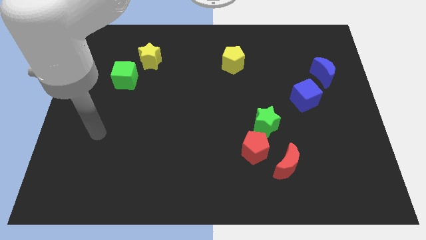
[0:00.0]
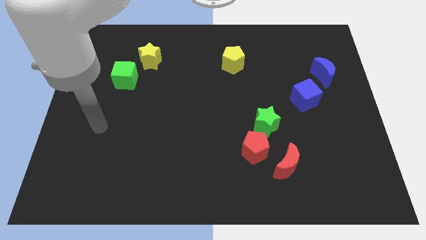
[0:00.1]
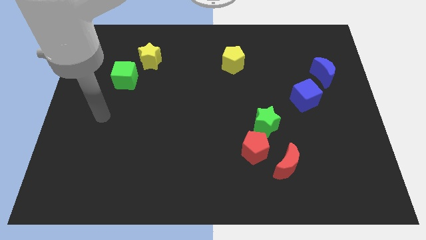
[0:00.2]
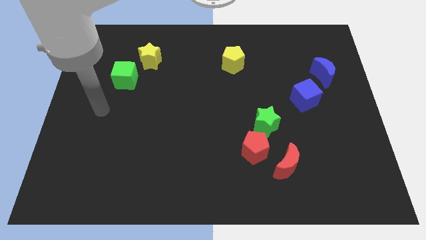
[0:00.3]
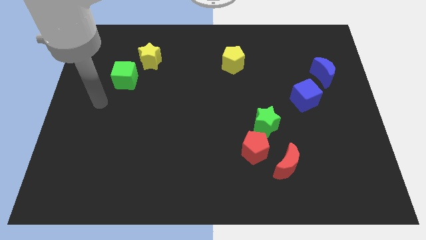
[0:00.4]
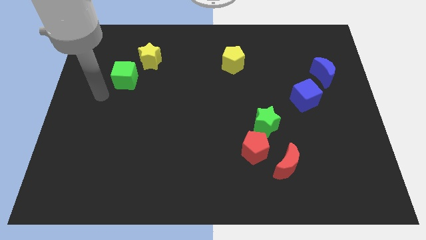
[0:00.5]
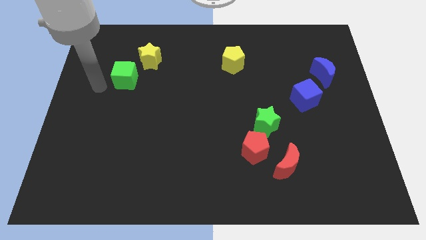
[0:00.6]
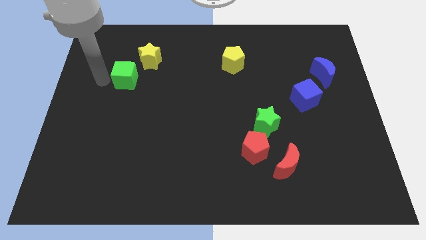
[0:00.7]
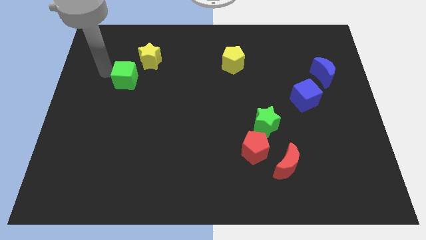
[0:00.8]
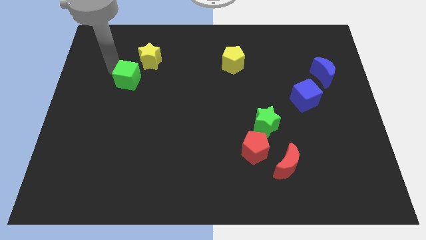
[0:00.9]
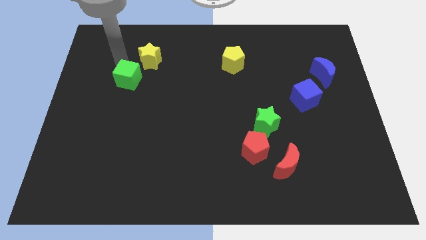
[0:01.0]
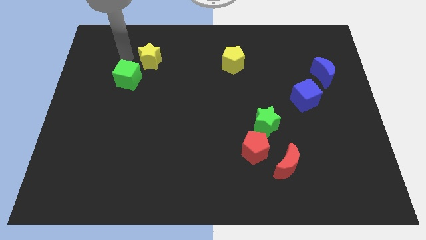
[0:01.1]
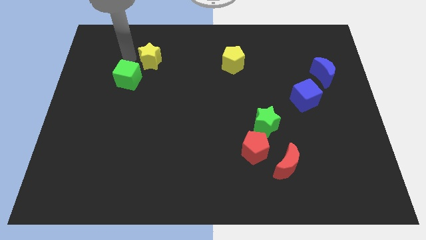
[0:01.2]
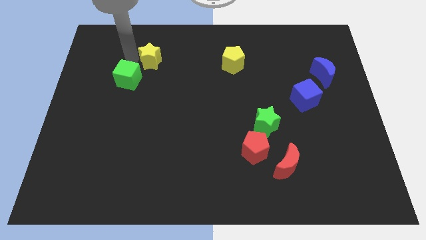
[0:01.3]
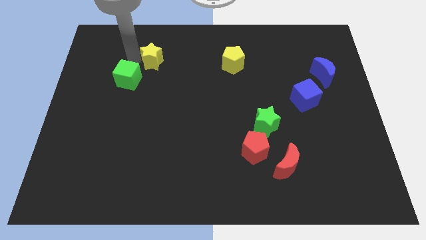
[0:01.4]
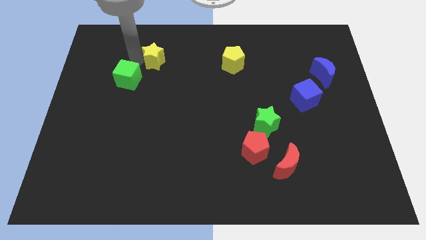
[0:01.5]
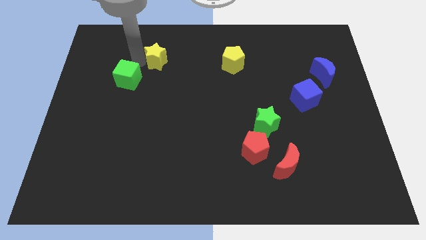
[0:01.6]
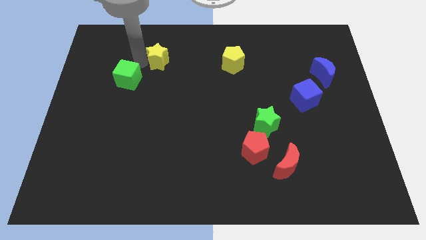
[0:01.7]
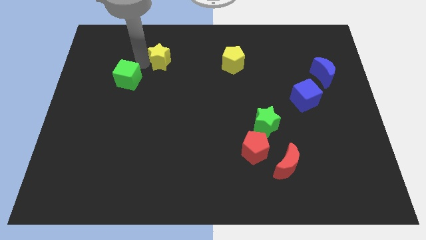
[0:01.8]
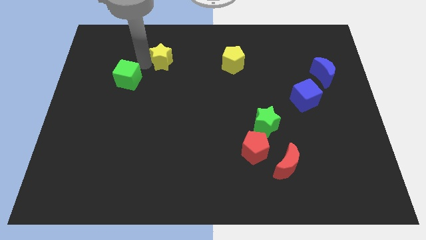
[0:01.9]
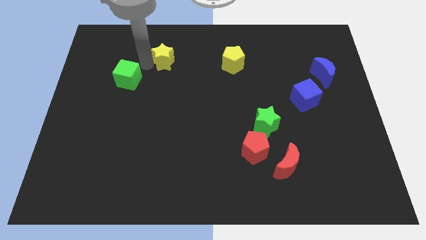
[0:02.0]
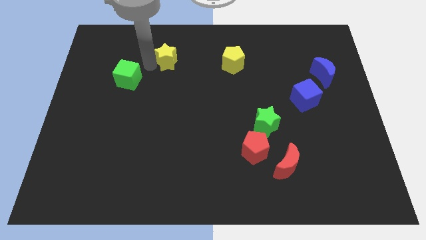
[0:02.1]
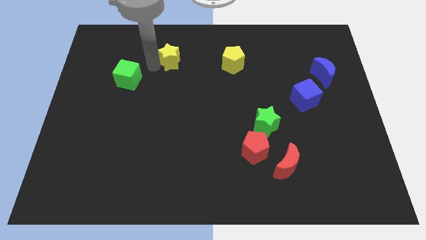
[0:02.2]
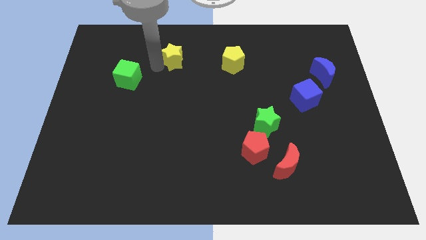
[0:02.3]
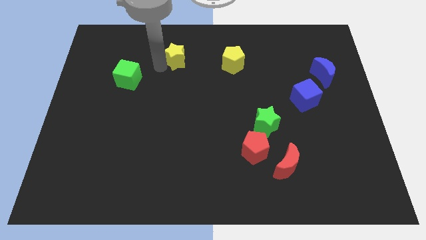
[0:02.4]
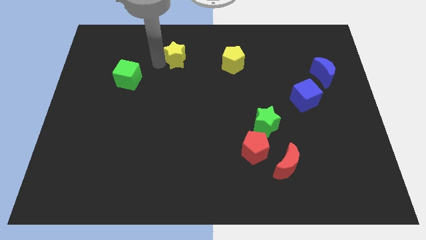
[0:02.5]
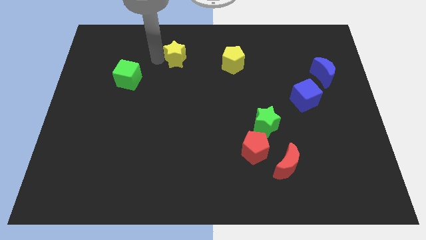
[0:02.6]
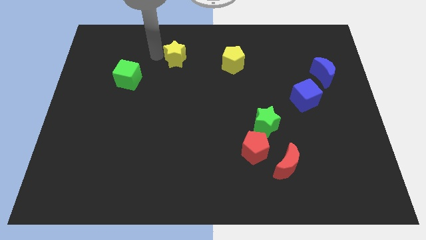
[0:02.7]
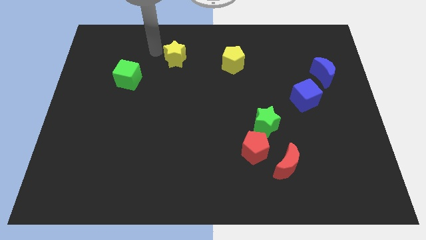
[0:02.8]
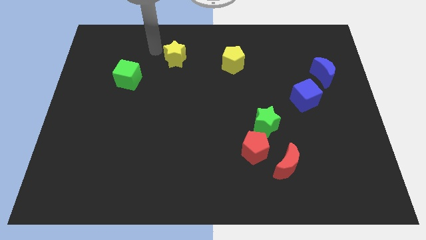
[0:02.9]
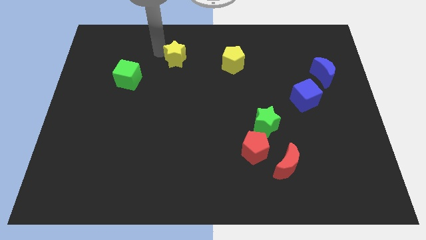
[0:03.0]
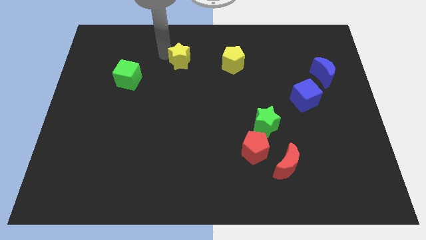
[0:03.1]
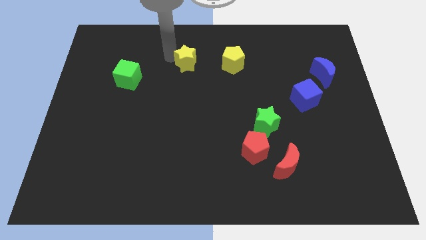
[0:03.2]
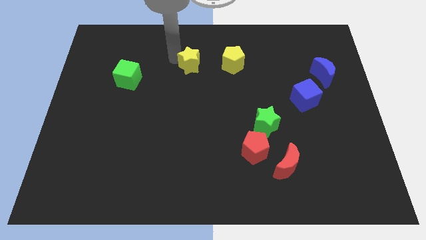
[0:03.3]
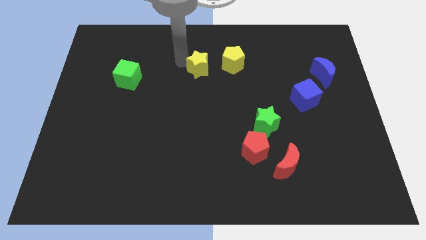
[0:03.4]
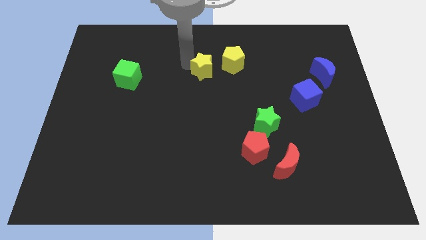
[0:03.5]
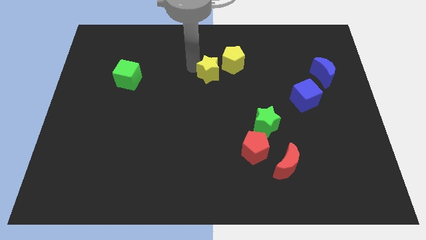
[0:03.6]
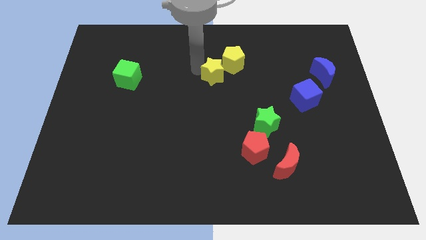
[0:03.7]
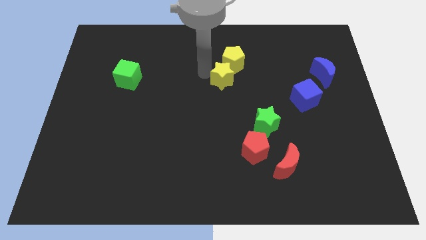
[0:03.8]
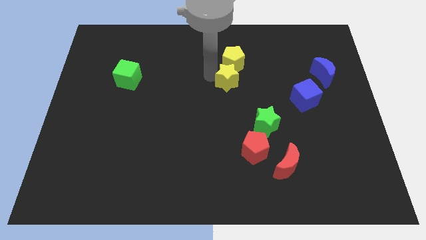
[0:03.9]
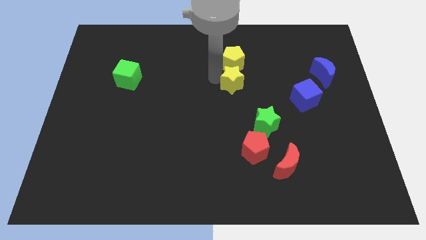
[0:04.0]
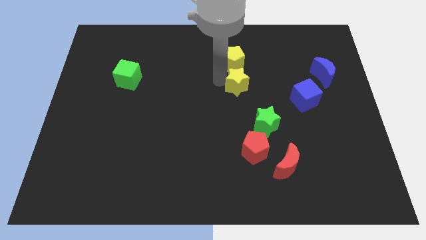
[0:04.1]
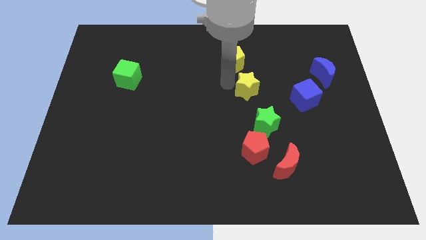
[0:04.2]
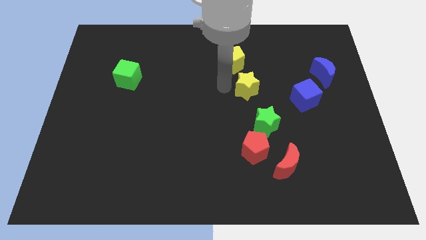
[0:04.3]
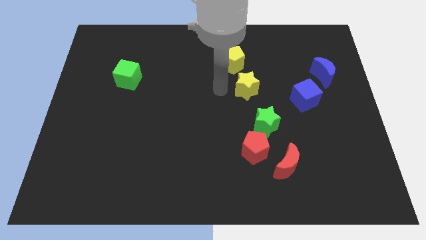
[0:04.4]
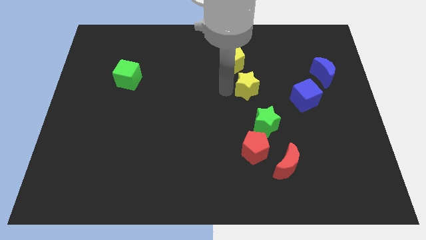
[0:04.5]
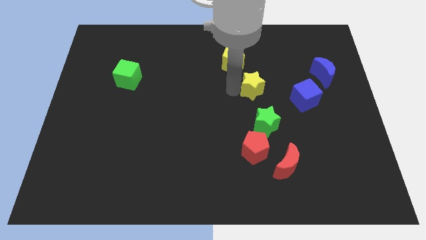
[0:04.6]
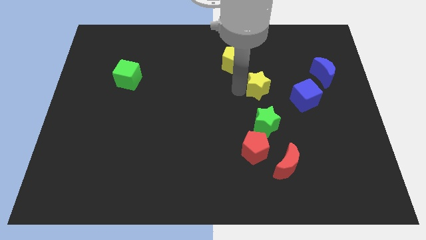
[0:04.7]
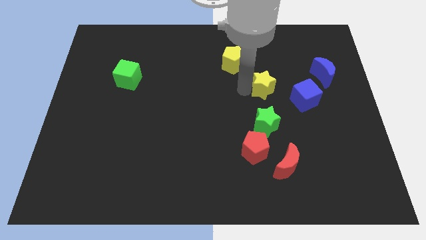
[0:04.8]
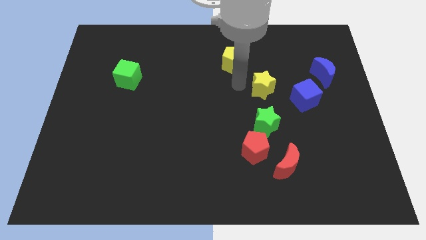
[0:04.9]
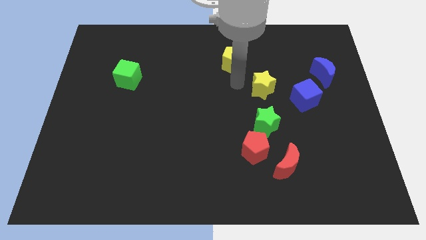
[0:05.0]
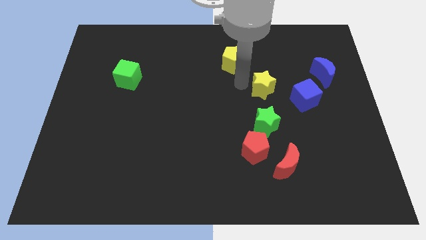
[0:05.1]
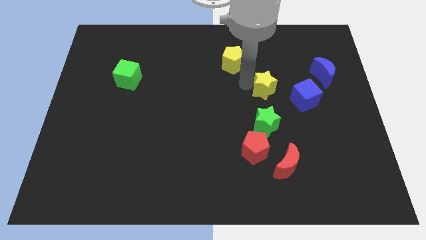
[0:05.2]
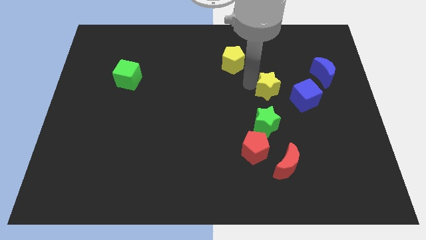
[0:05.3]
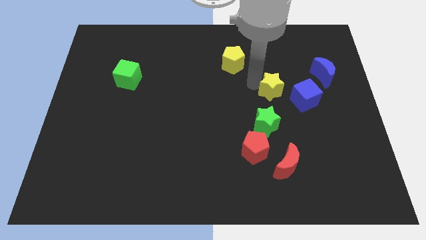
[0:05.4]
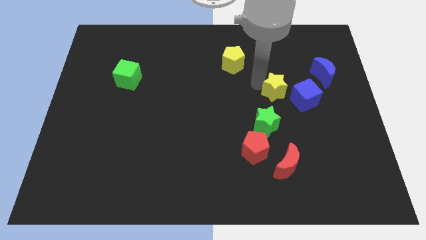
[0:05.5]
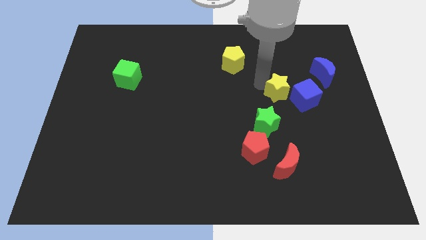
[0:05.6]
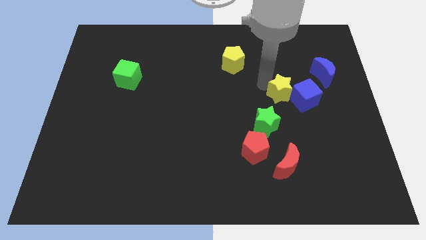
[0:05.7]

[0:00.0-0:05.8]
push the yellow star next to the blue cube

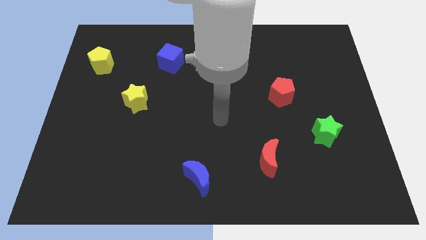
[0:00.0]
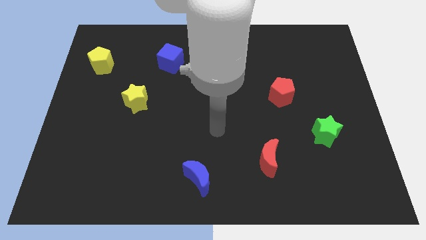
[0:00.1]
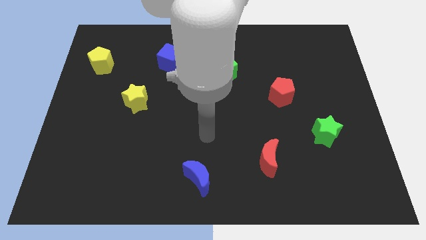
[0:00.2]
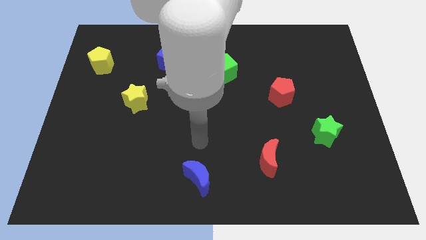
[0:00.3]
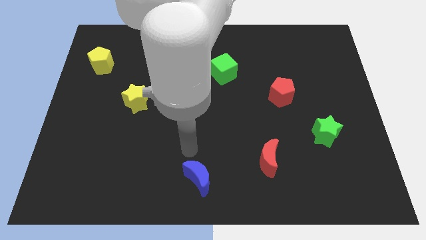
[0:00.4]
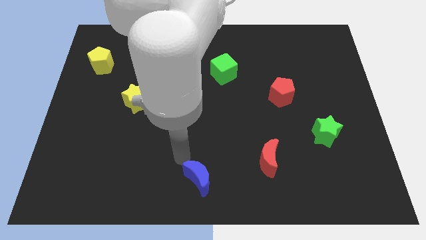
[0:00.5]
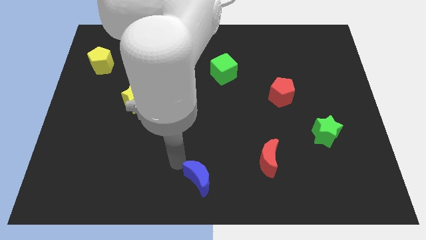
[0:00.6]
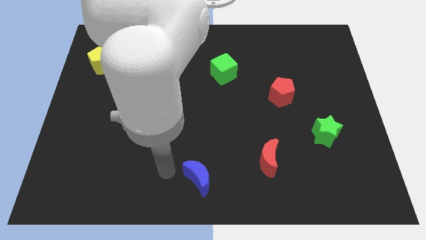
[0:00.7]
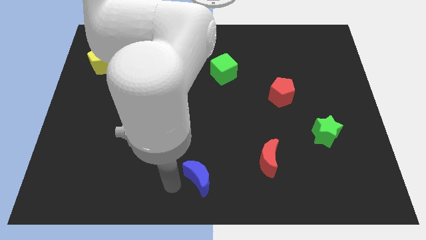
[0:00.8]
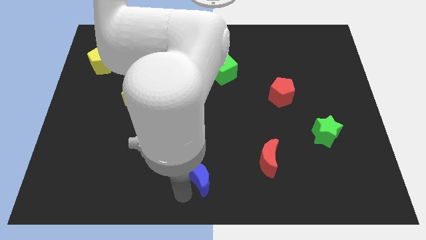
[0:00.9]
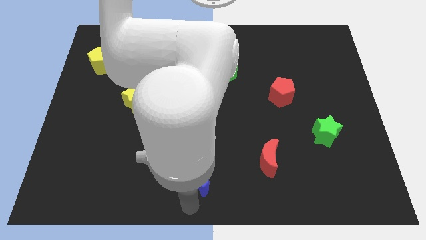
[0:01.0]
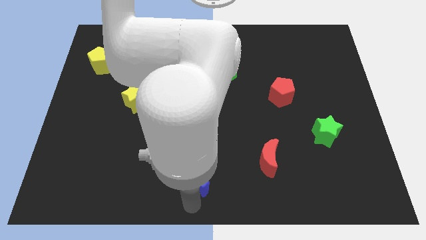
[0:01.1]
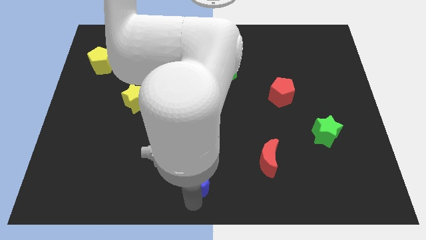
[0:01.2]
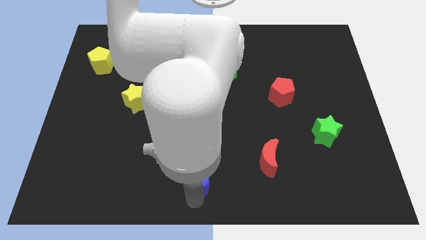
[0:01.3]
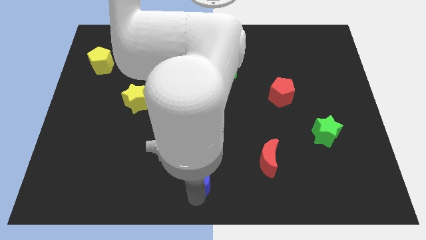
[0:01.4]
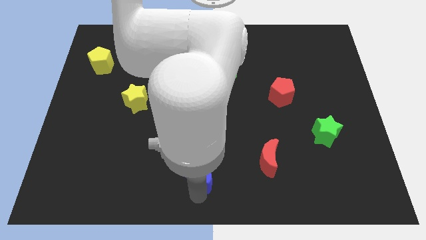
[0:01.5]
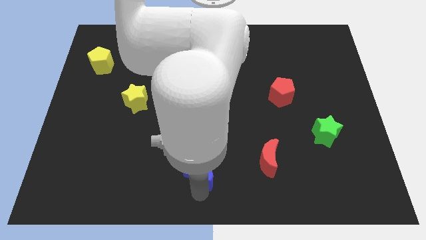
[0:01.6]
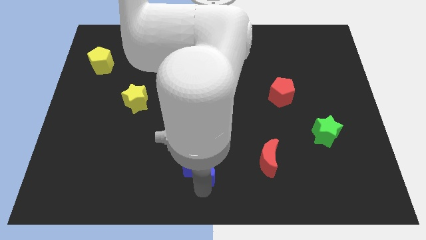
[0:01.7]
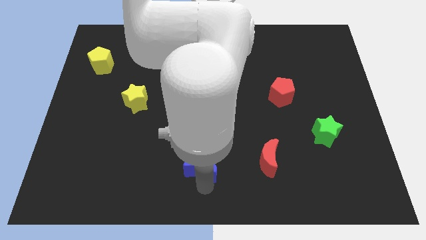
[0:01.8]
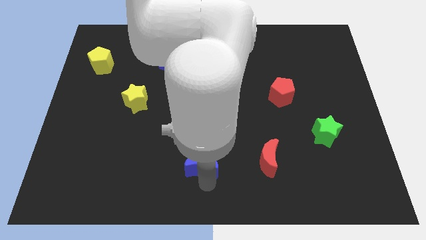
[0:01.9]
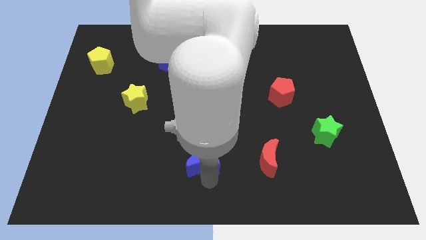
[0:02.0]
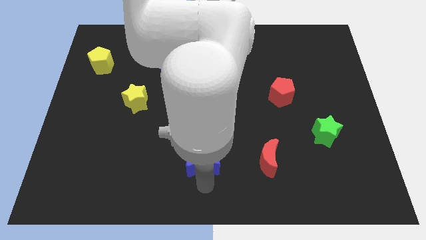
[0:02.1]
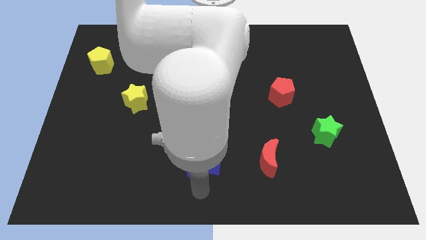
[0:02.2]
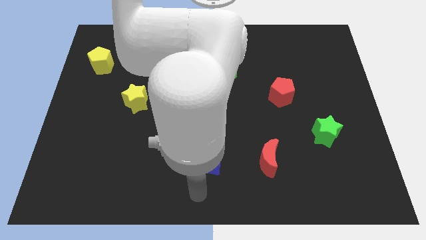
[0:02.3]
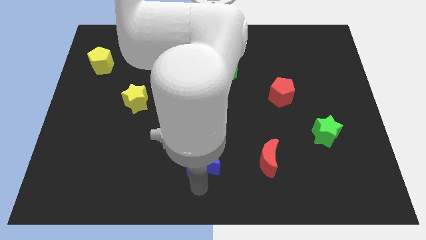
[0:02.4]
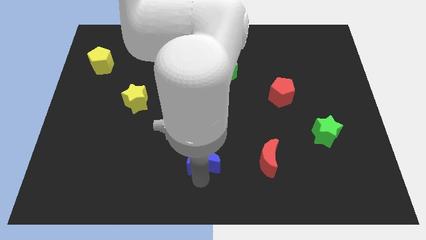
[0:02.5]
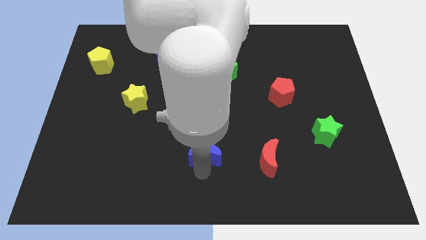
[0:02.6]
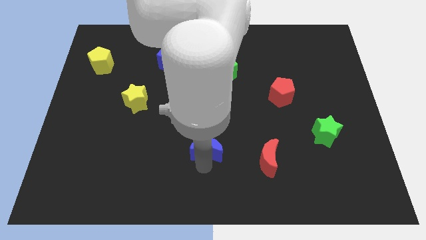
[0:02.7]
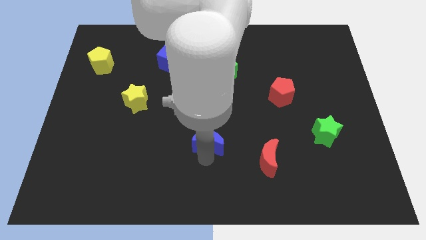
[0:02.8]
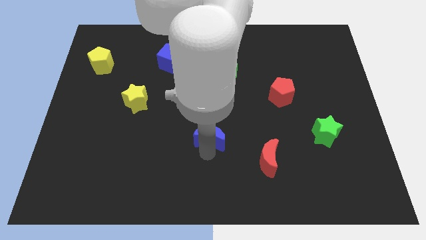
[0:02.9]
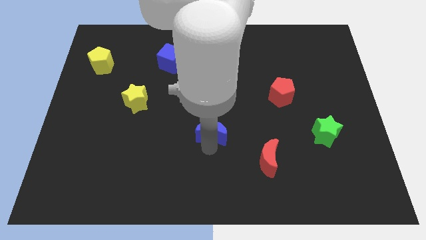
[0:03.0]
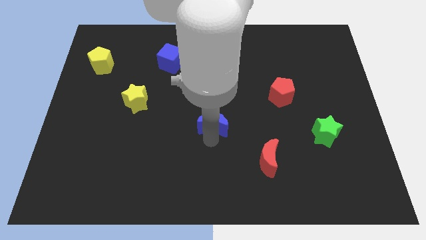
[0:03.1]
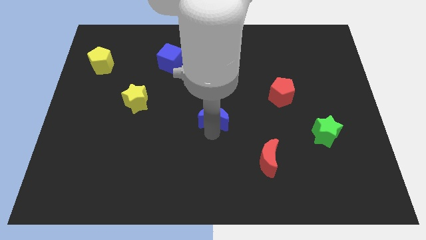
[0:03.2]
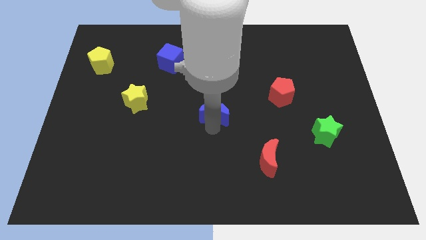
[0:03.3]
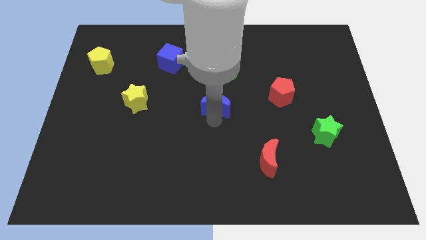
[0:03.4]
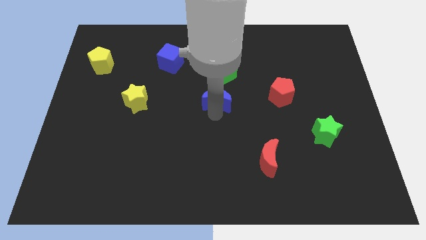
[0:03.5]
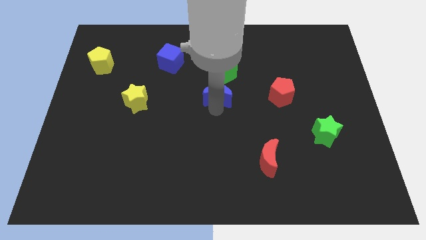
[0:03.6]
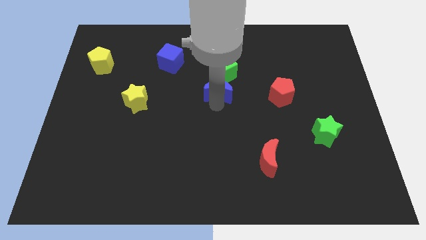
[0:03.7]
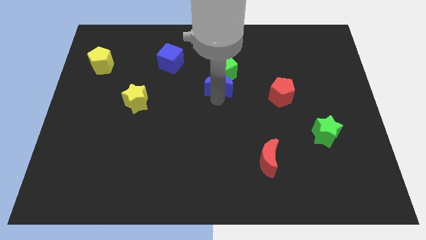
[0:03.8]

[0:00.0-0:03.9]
push the blue moon close to the green cube
